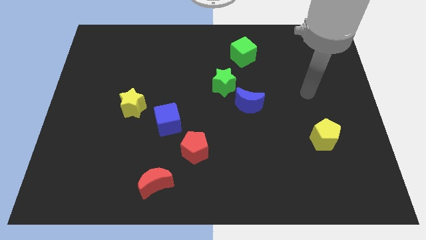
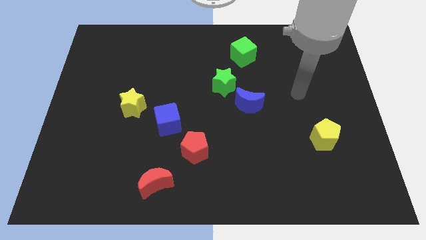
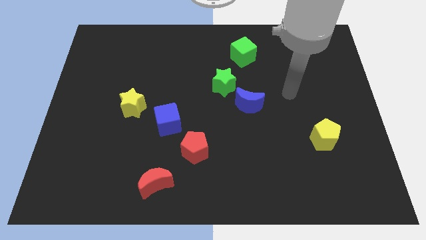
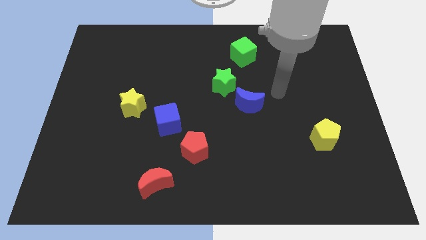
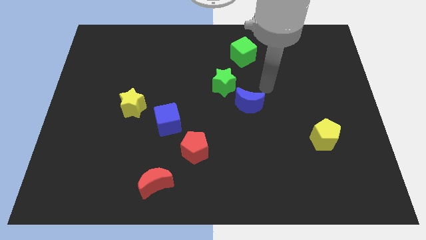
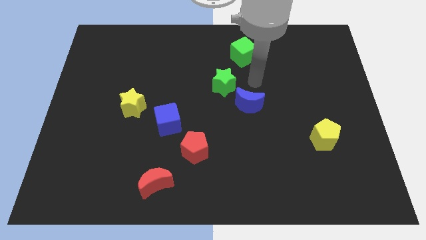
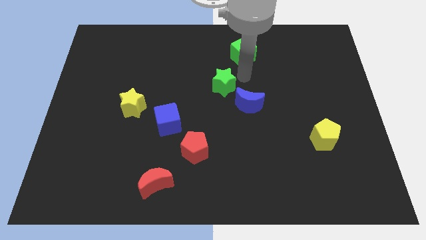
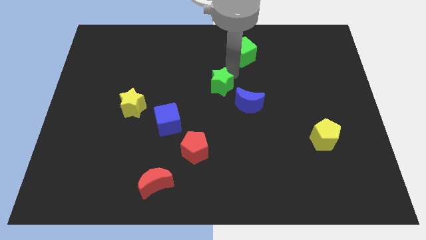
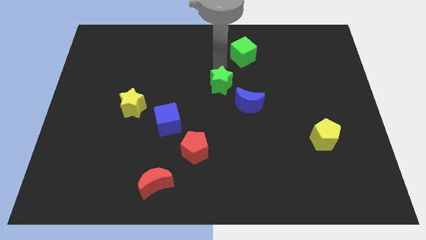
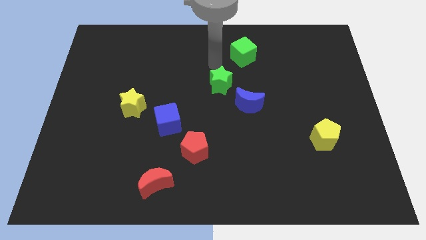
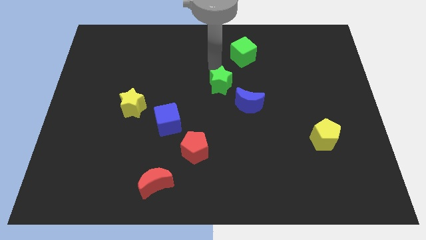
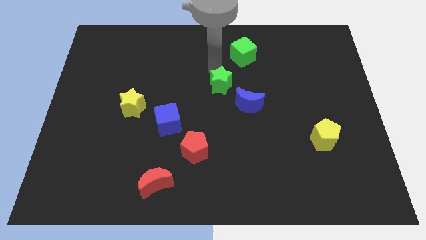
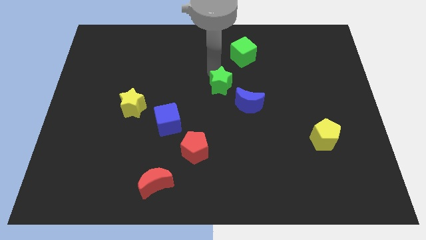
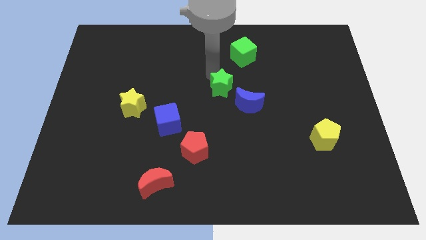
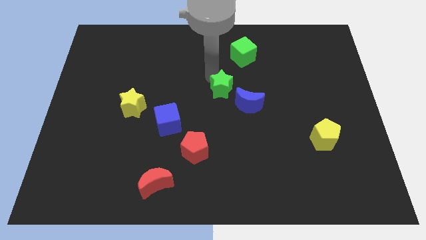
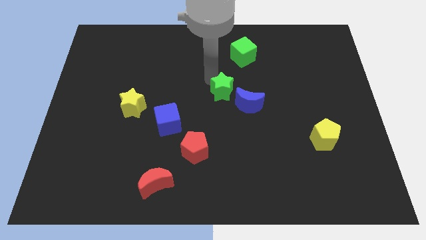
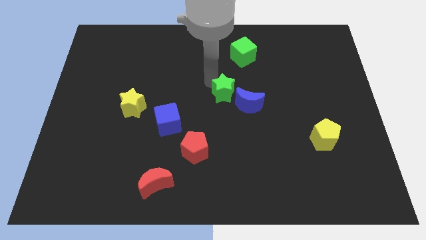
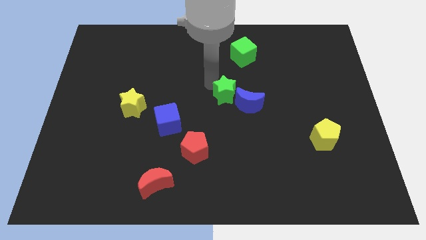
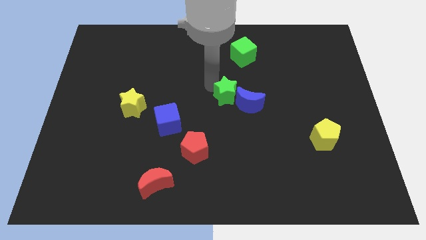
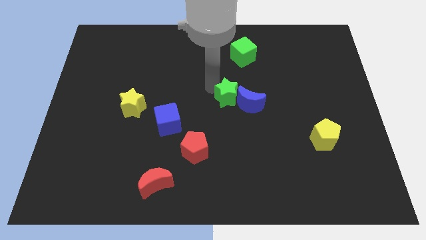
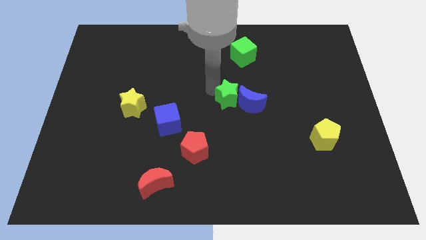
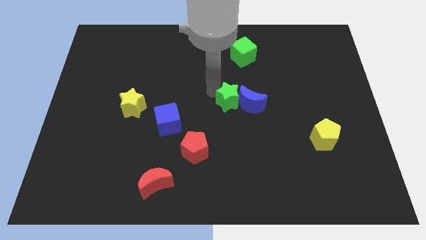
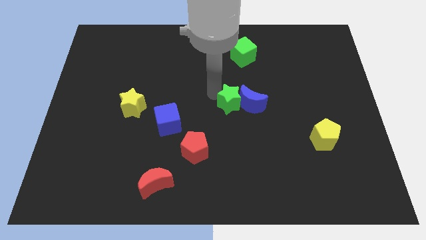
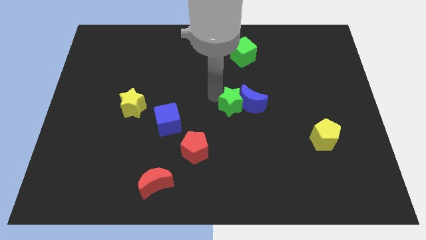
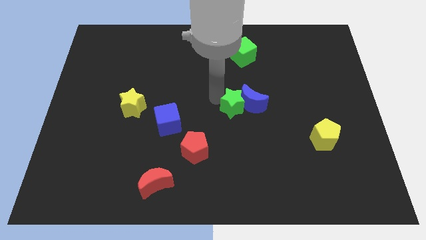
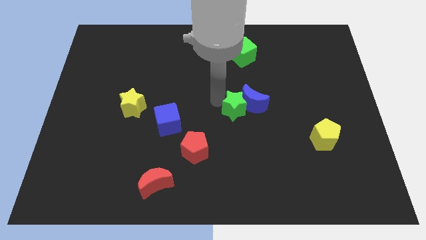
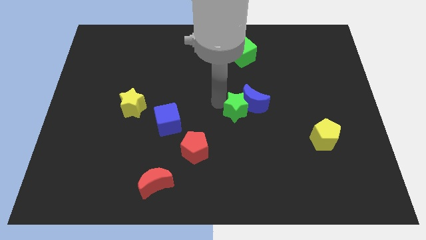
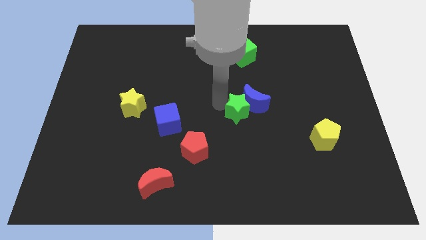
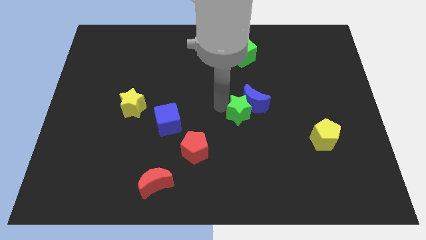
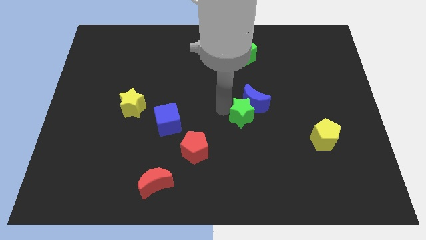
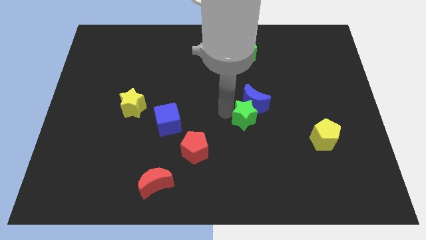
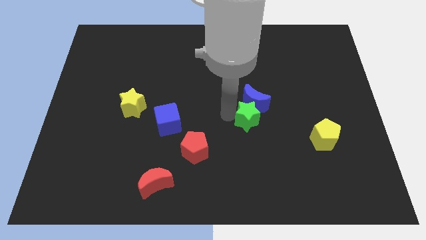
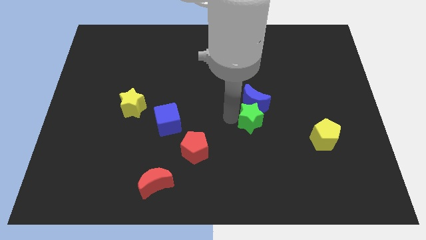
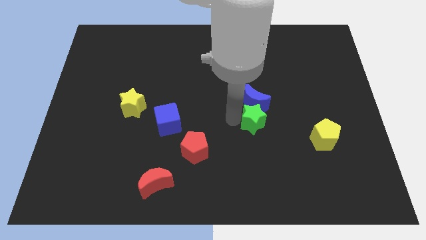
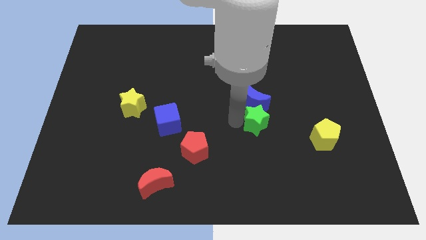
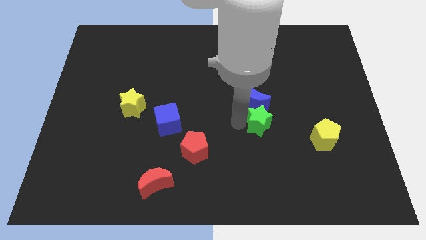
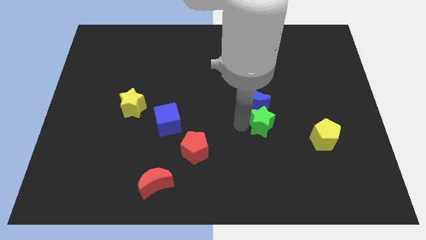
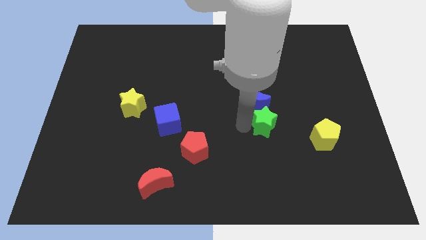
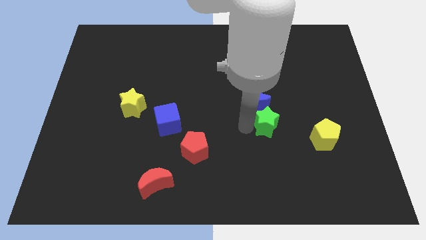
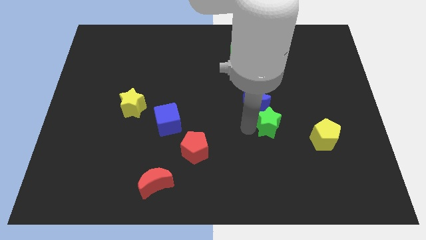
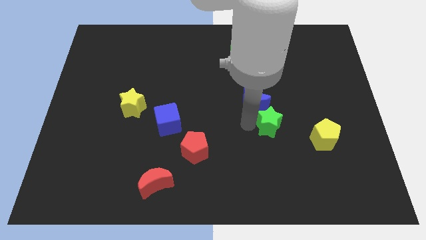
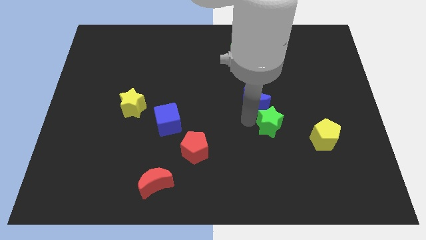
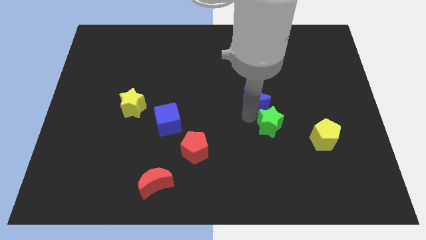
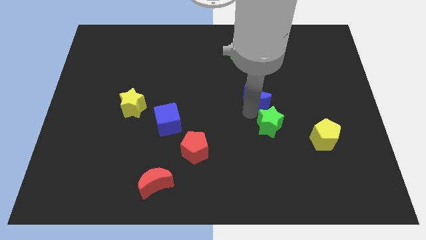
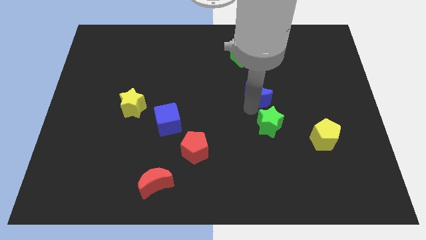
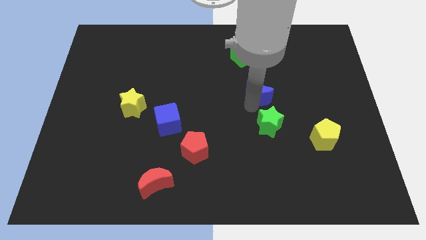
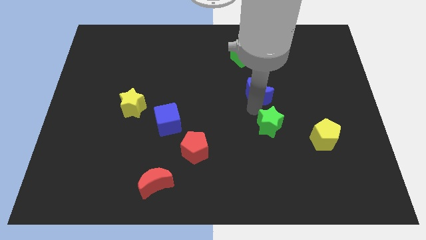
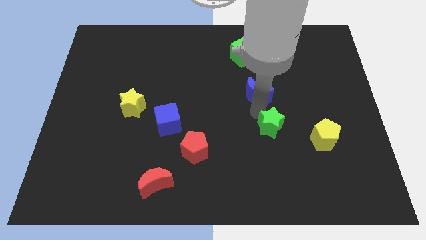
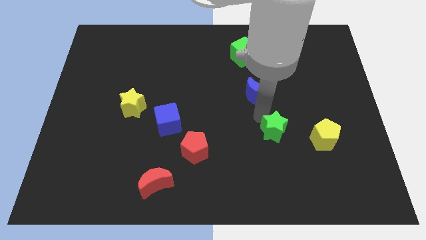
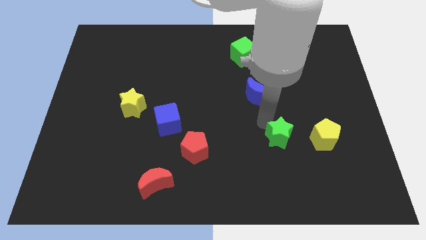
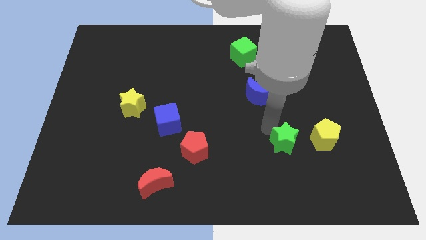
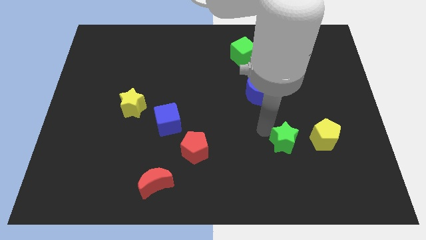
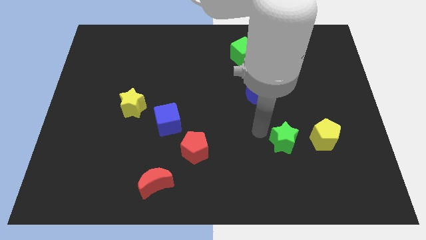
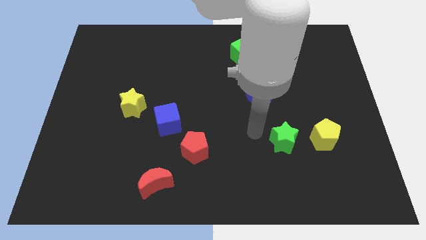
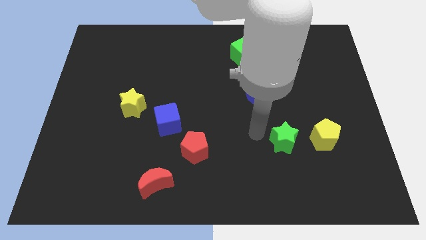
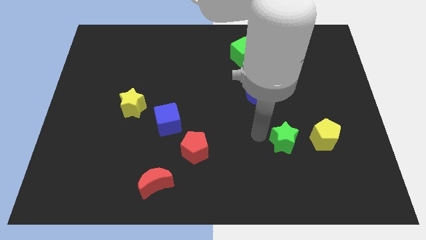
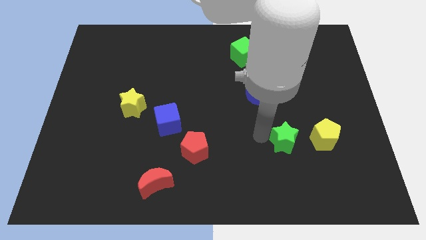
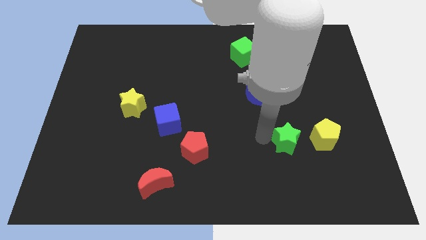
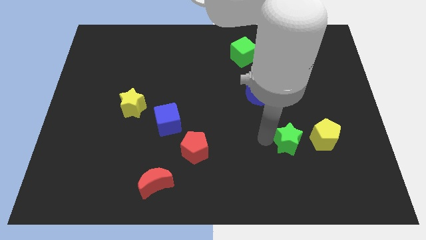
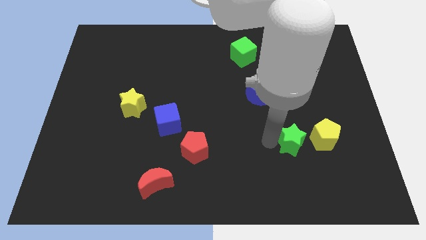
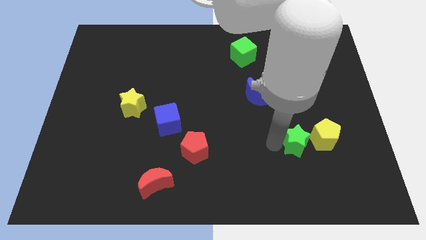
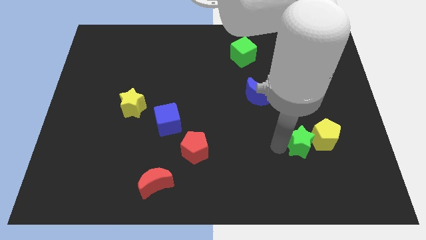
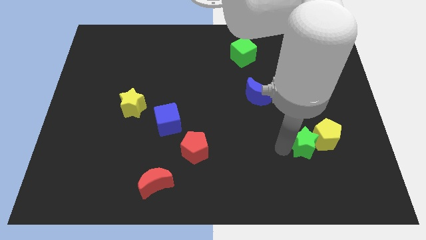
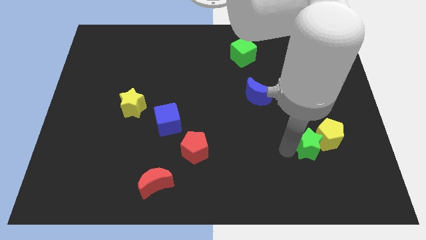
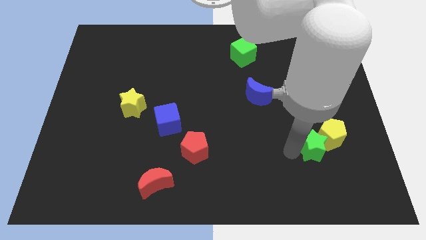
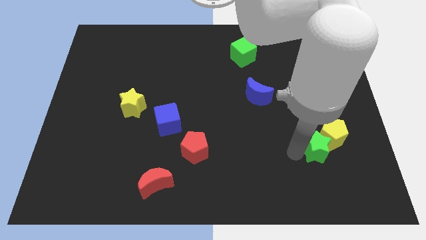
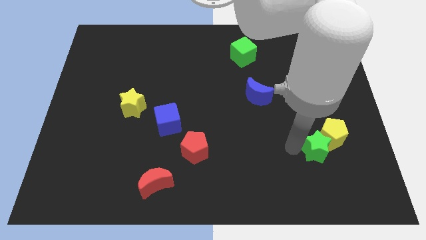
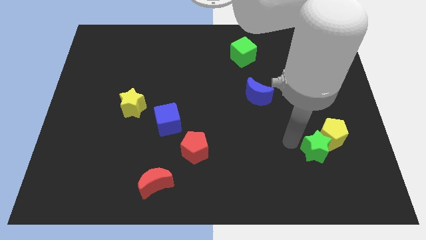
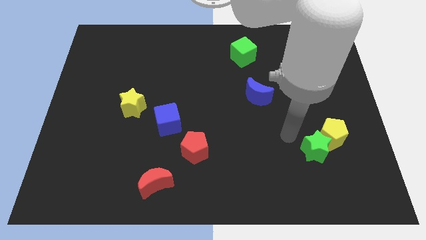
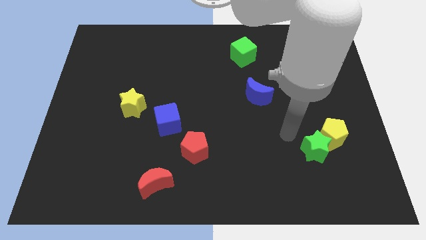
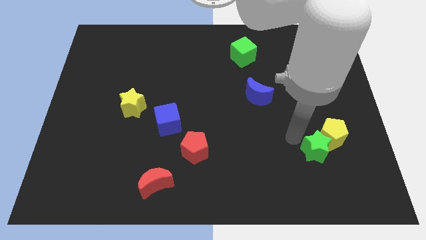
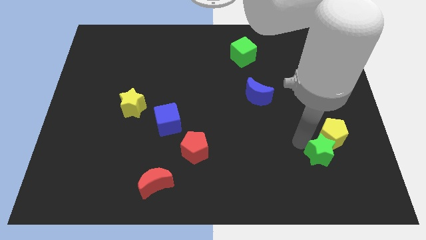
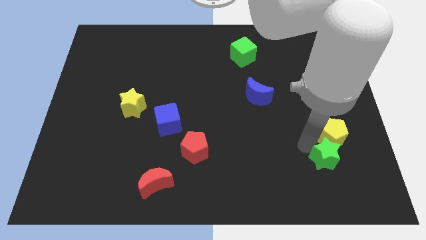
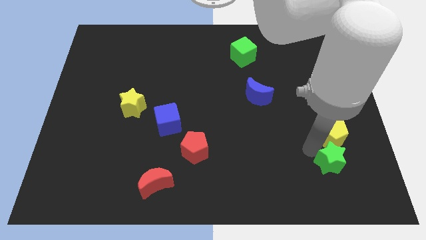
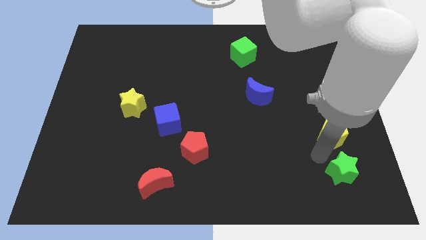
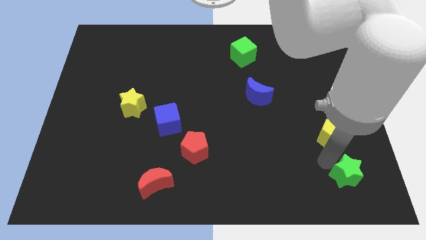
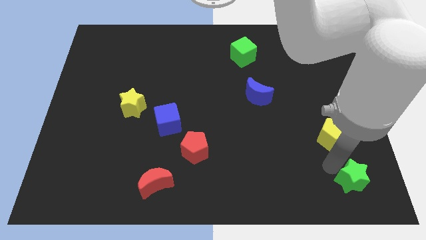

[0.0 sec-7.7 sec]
move the green star to the lower right corner
